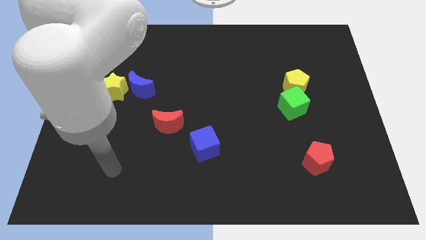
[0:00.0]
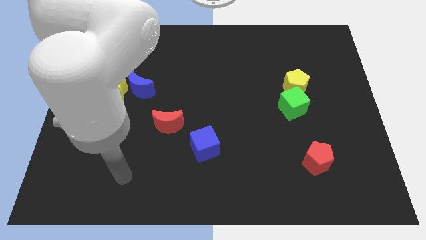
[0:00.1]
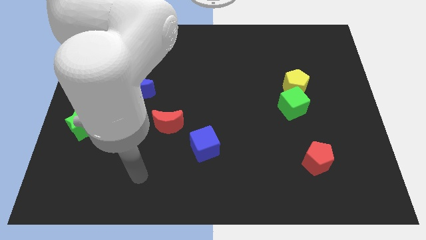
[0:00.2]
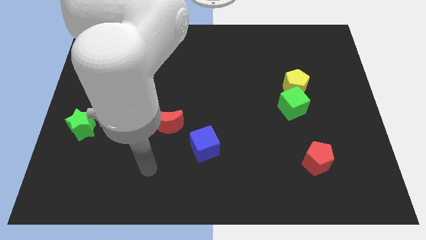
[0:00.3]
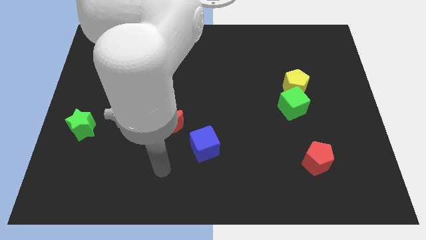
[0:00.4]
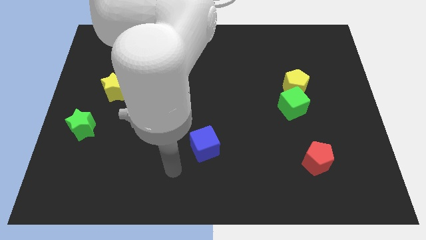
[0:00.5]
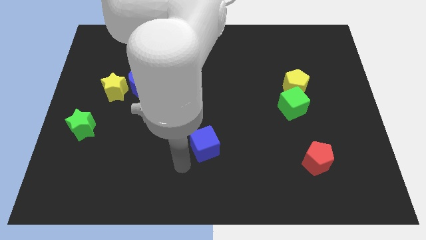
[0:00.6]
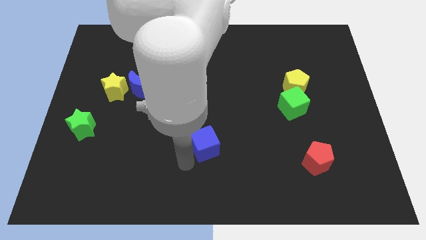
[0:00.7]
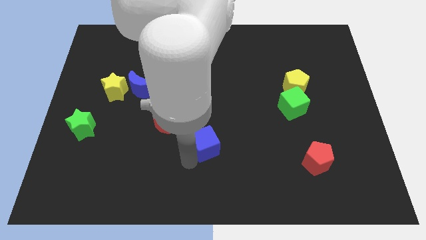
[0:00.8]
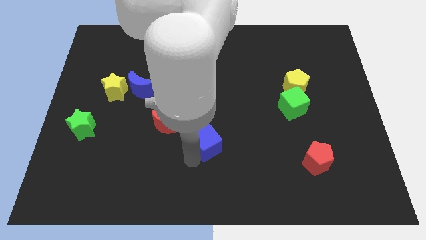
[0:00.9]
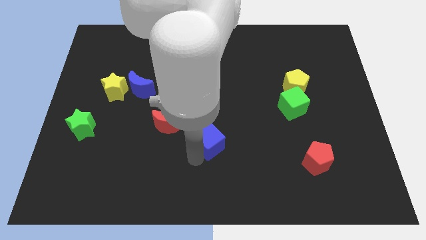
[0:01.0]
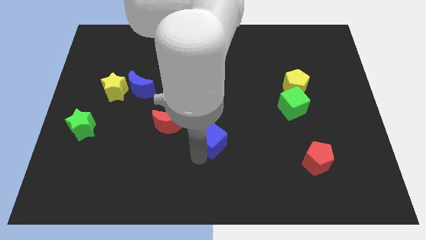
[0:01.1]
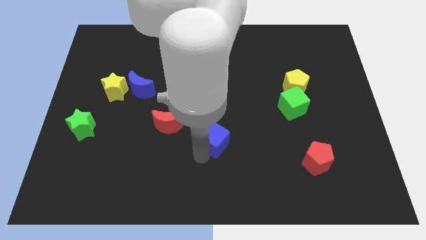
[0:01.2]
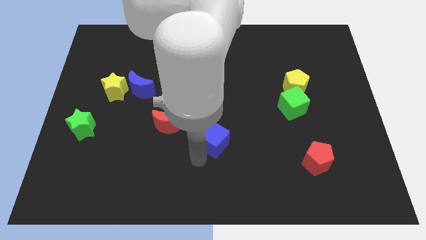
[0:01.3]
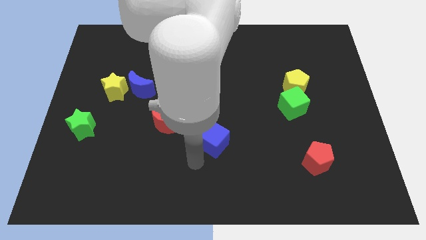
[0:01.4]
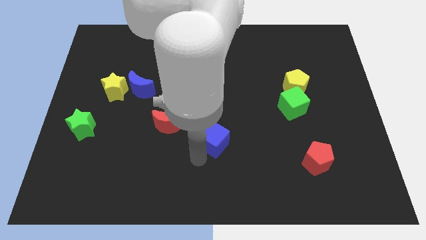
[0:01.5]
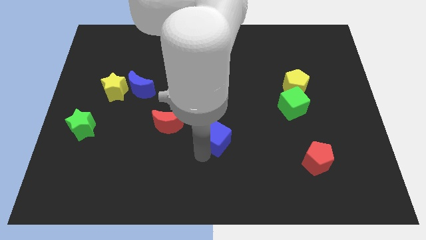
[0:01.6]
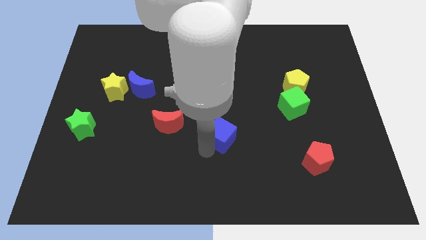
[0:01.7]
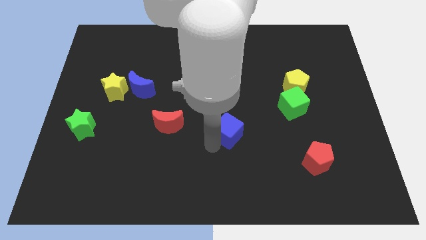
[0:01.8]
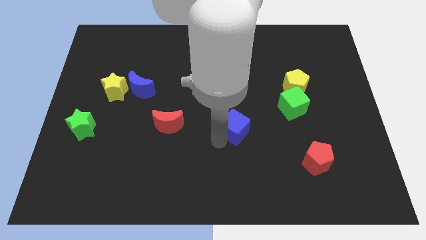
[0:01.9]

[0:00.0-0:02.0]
push the blue cube diagonally upwards and right slightly

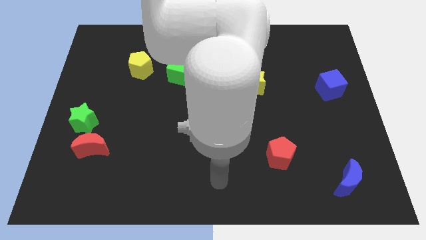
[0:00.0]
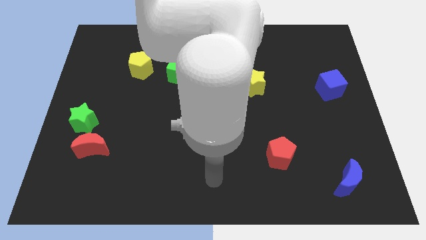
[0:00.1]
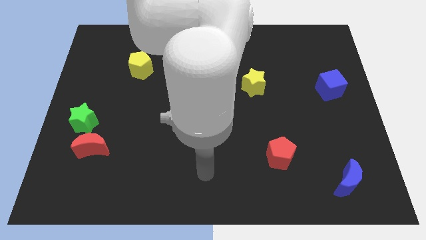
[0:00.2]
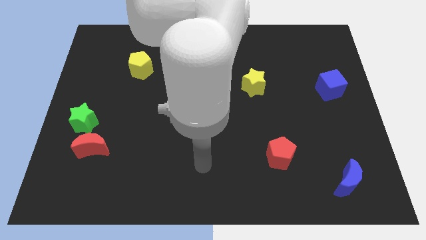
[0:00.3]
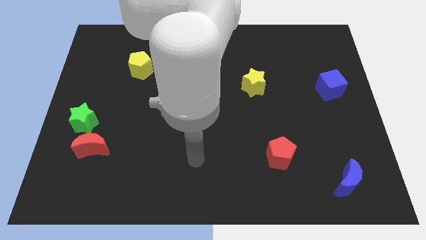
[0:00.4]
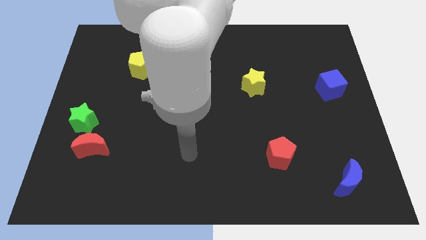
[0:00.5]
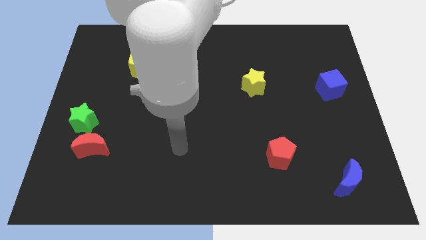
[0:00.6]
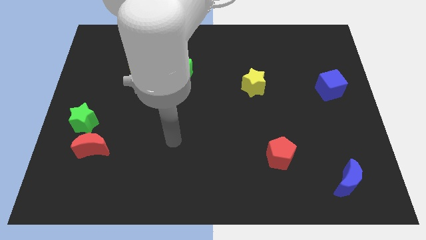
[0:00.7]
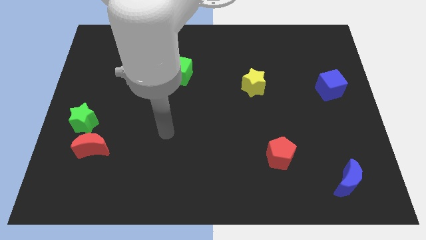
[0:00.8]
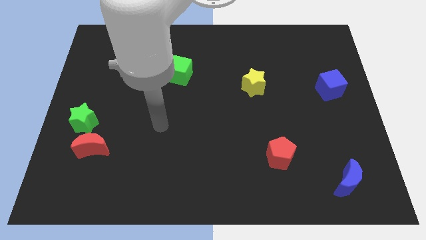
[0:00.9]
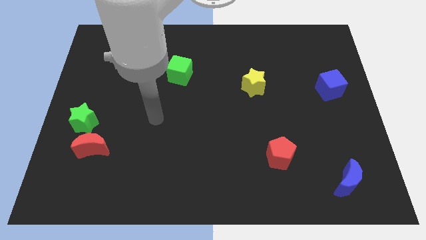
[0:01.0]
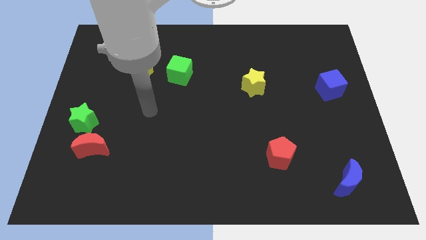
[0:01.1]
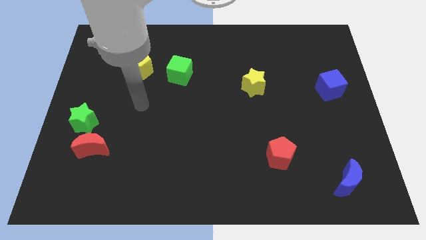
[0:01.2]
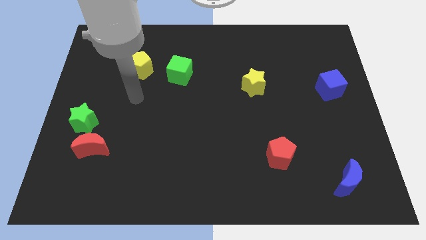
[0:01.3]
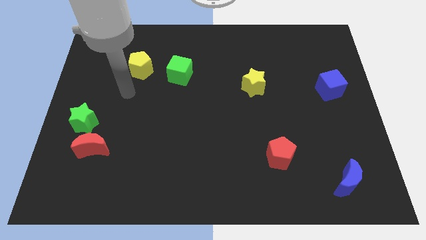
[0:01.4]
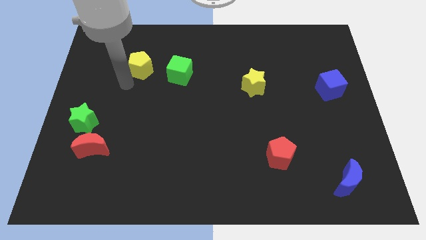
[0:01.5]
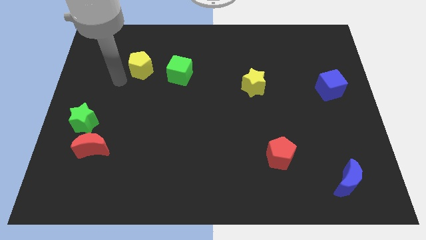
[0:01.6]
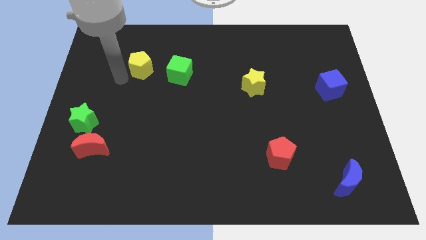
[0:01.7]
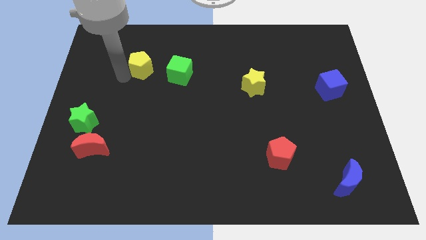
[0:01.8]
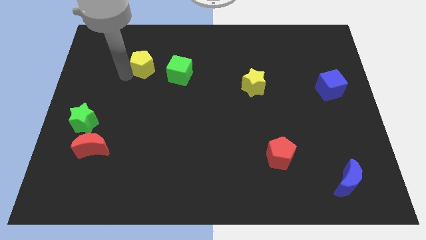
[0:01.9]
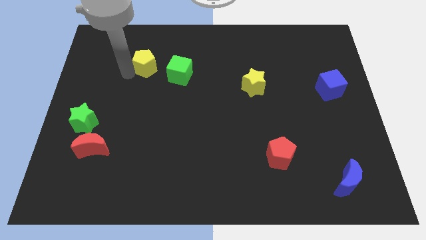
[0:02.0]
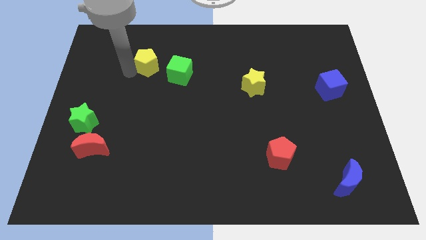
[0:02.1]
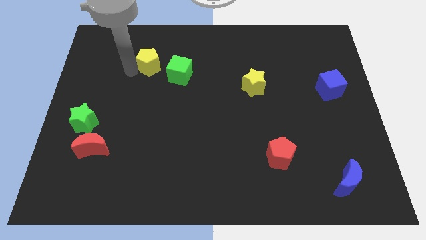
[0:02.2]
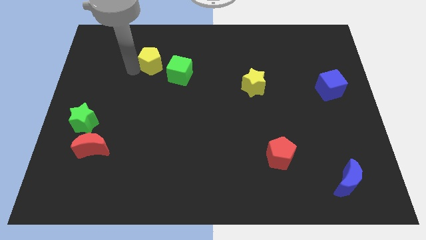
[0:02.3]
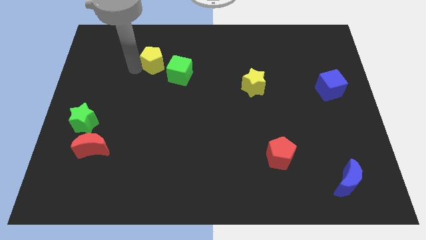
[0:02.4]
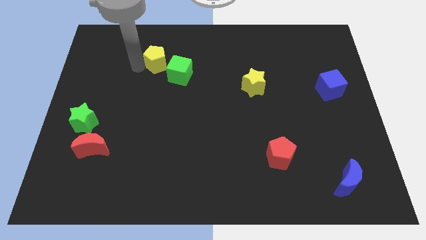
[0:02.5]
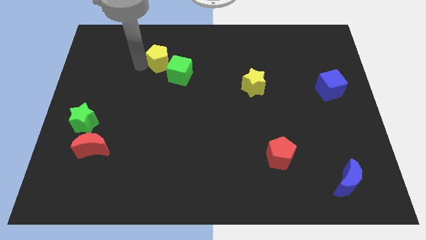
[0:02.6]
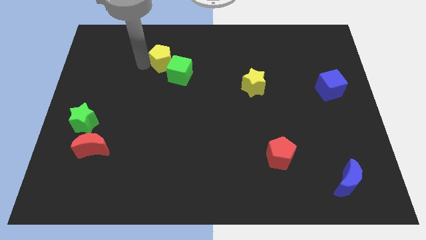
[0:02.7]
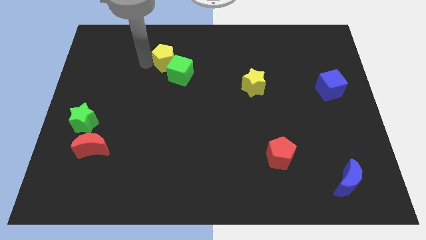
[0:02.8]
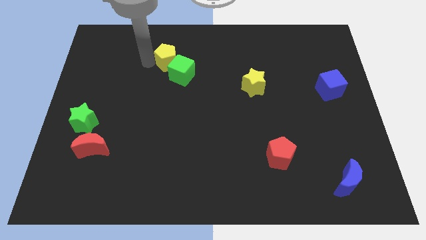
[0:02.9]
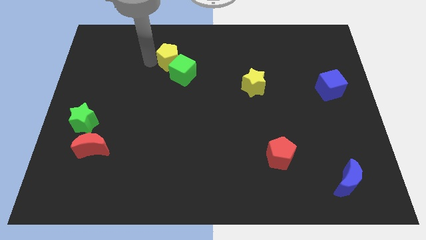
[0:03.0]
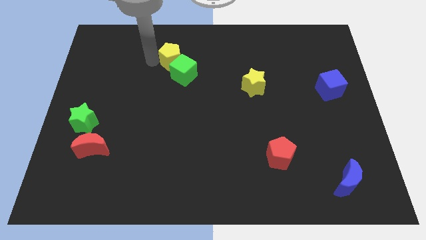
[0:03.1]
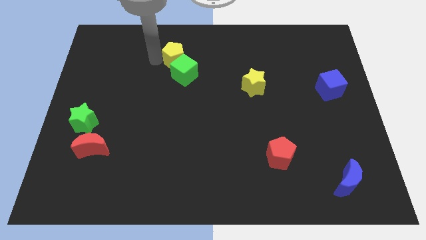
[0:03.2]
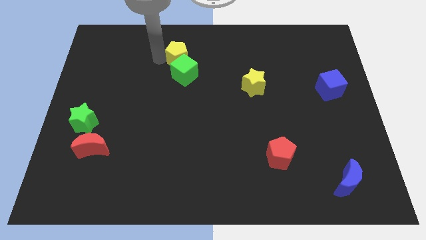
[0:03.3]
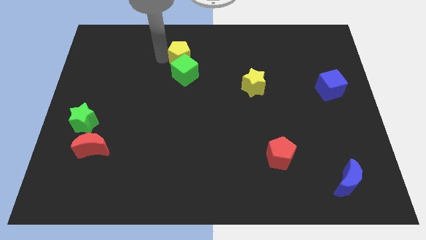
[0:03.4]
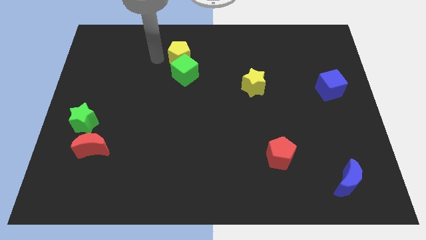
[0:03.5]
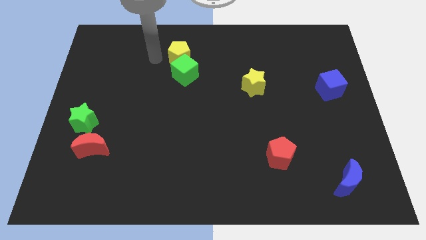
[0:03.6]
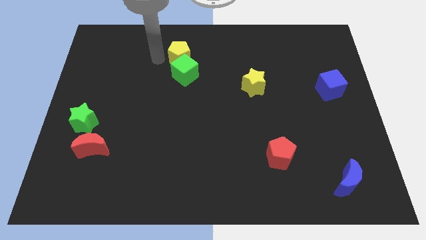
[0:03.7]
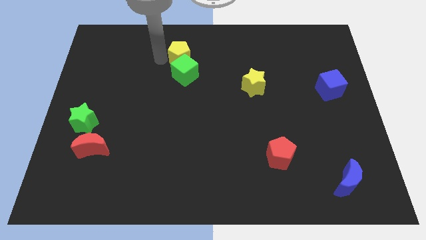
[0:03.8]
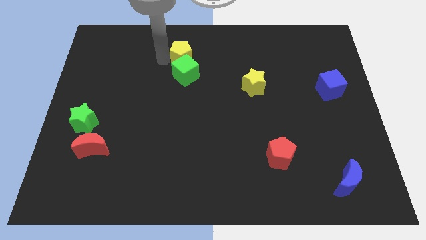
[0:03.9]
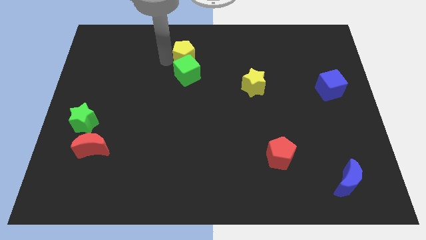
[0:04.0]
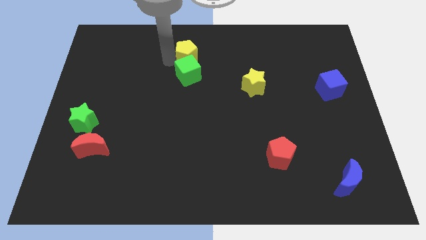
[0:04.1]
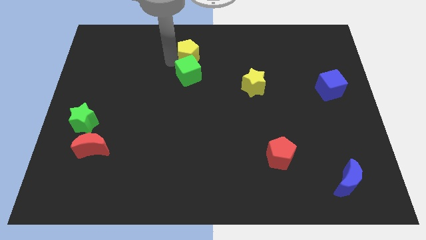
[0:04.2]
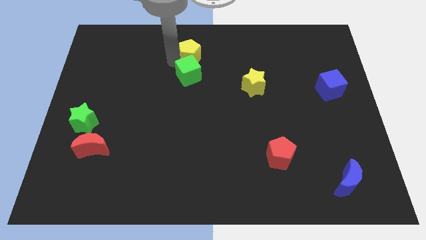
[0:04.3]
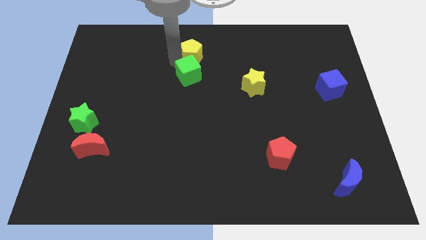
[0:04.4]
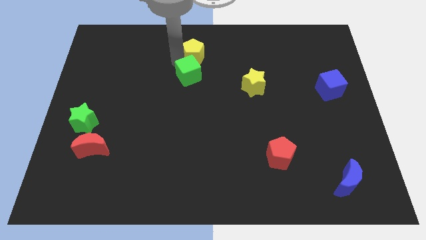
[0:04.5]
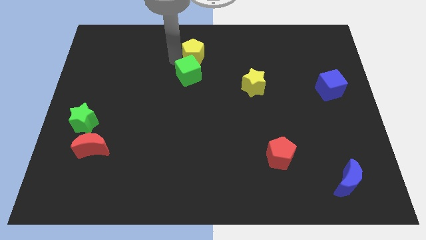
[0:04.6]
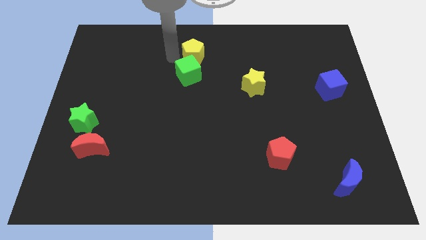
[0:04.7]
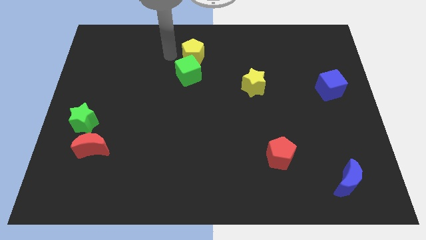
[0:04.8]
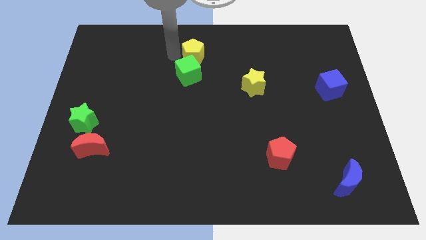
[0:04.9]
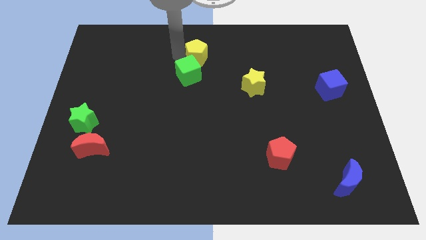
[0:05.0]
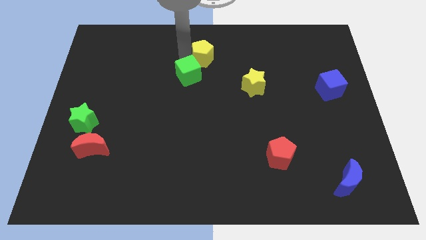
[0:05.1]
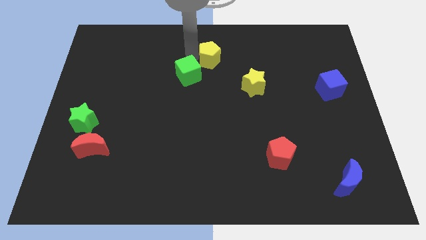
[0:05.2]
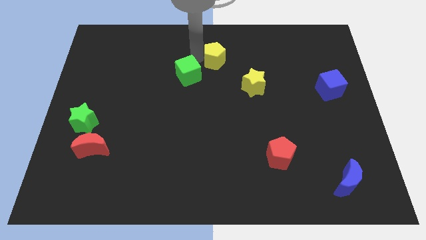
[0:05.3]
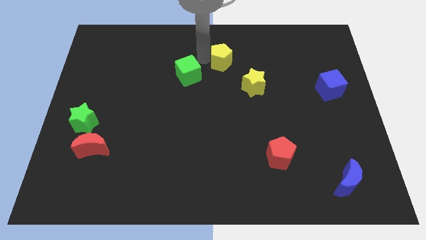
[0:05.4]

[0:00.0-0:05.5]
slide the yellow pentagon to the right

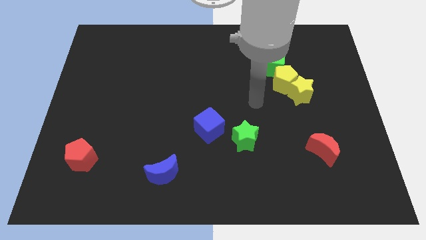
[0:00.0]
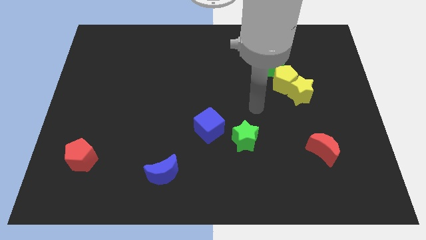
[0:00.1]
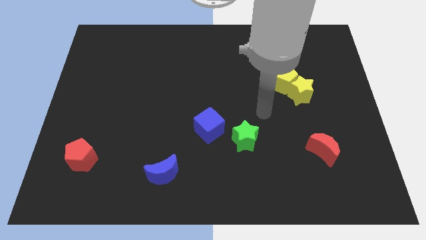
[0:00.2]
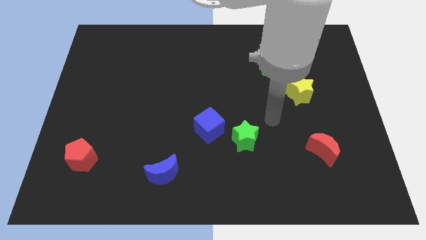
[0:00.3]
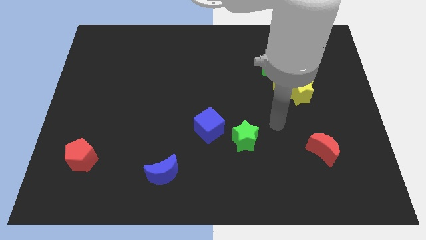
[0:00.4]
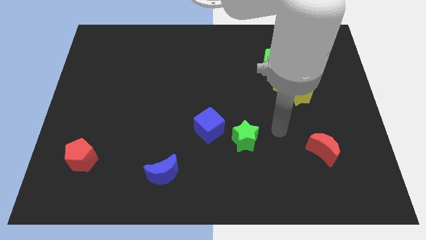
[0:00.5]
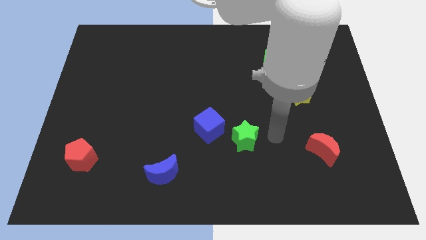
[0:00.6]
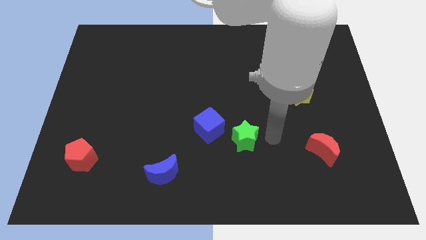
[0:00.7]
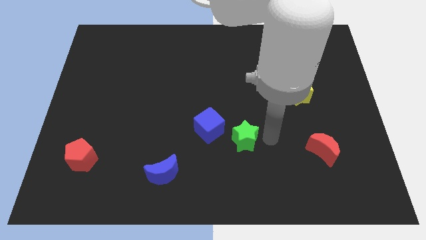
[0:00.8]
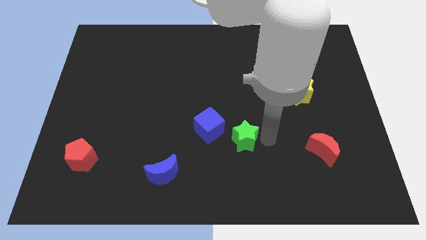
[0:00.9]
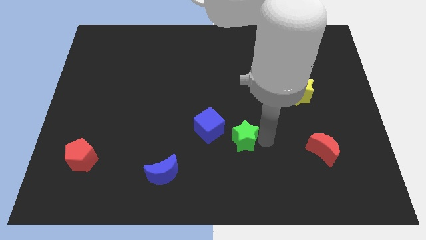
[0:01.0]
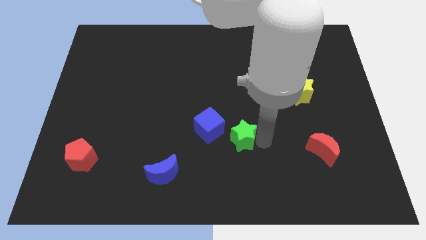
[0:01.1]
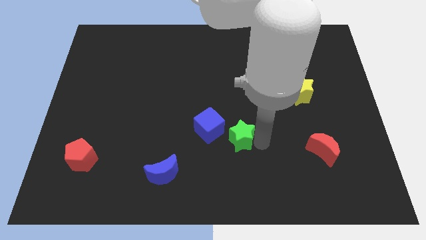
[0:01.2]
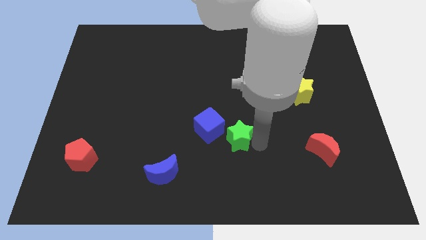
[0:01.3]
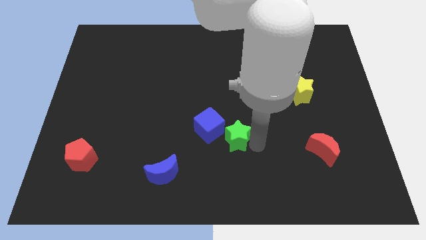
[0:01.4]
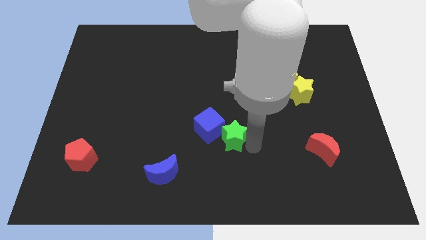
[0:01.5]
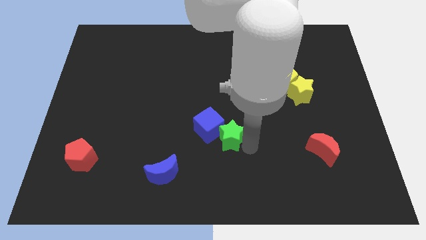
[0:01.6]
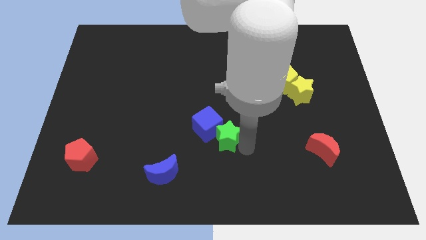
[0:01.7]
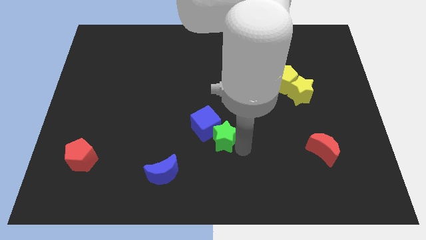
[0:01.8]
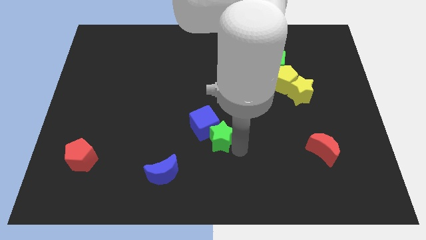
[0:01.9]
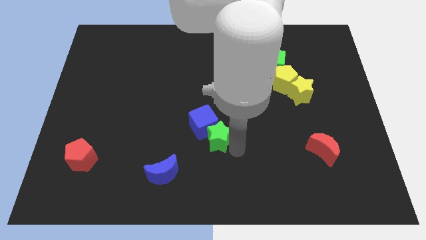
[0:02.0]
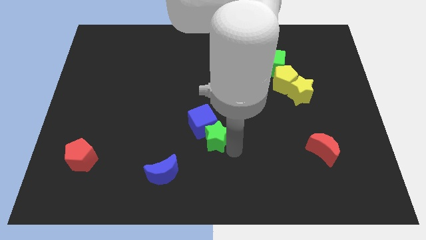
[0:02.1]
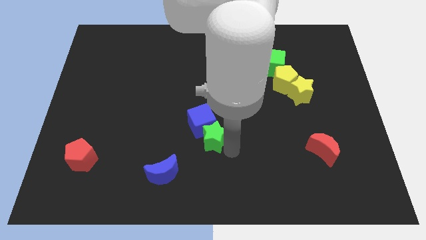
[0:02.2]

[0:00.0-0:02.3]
slide the green star to the left a bit
